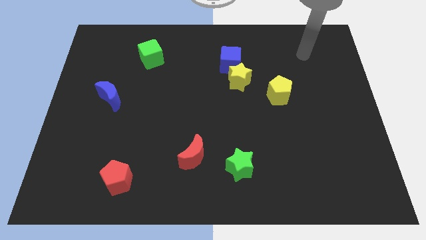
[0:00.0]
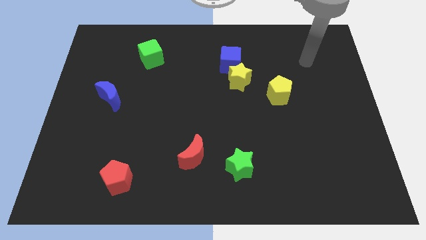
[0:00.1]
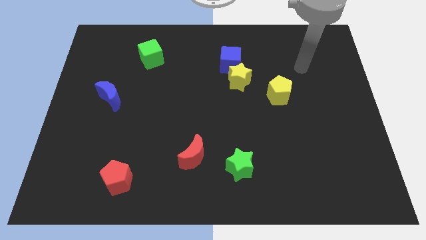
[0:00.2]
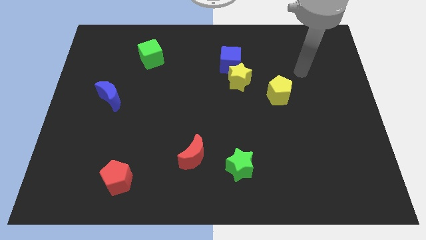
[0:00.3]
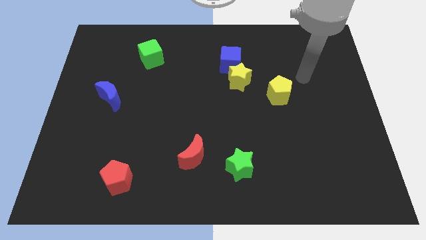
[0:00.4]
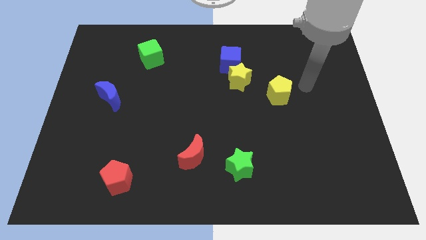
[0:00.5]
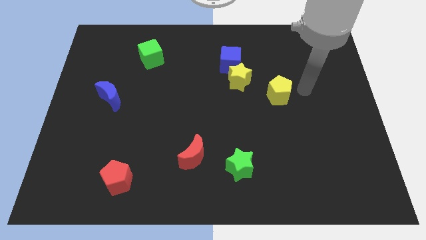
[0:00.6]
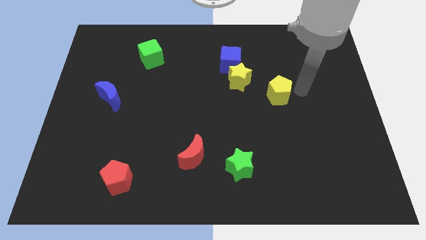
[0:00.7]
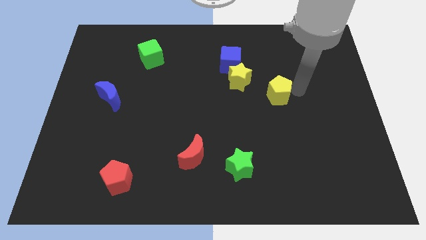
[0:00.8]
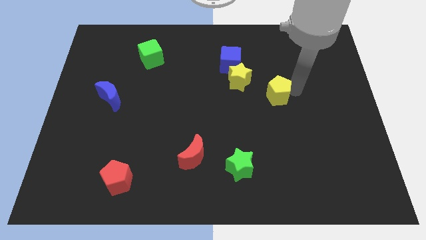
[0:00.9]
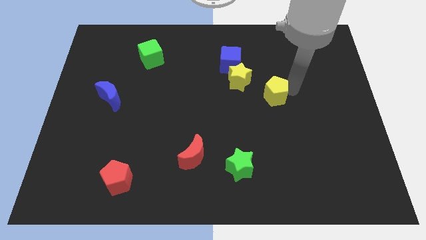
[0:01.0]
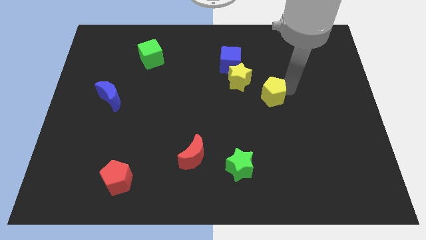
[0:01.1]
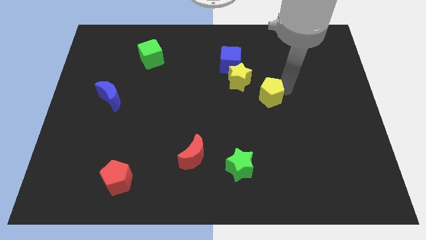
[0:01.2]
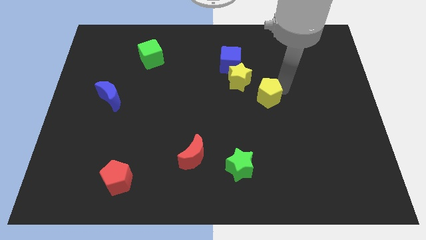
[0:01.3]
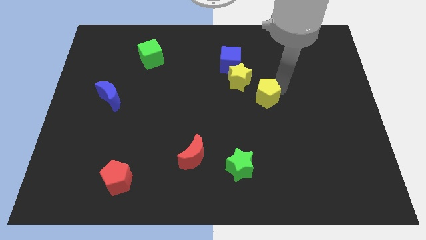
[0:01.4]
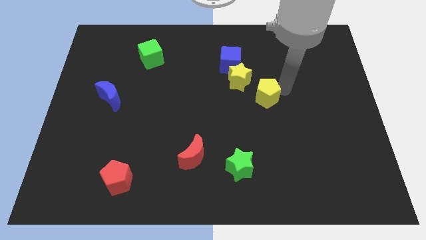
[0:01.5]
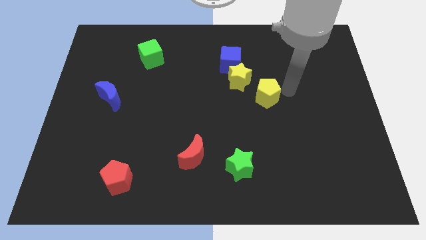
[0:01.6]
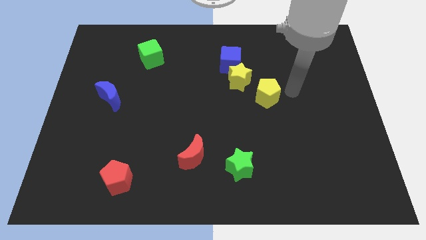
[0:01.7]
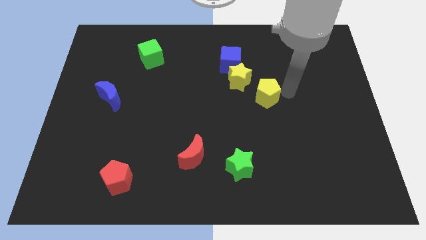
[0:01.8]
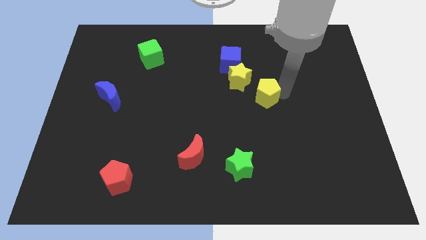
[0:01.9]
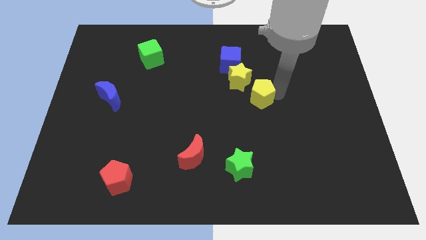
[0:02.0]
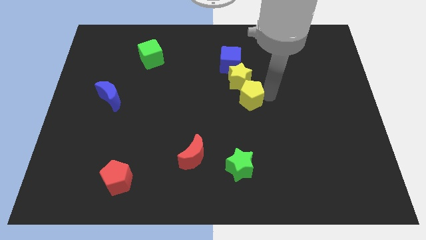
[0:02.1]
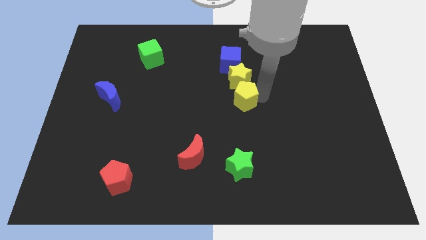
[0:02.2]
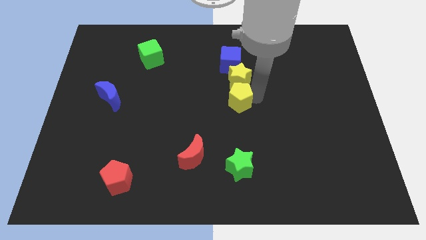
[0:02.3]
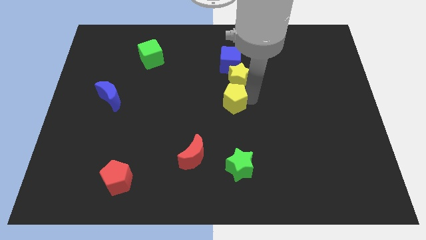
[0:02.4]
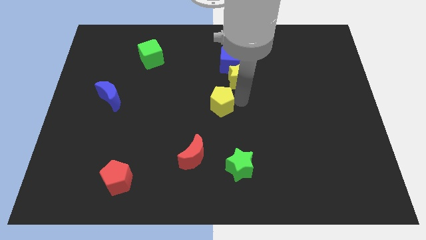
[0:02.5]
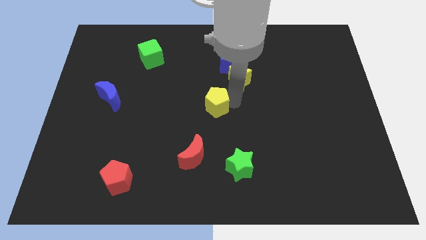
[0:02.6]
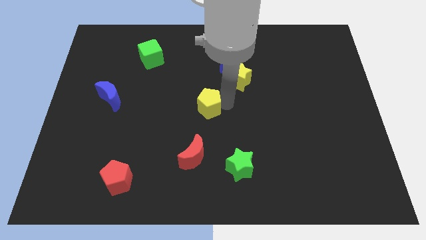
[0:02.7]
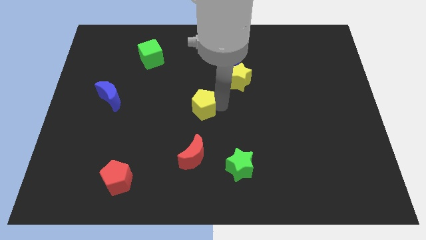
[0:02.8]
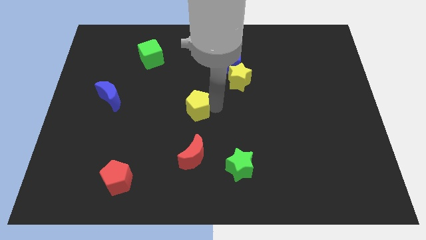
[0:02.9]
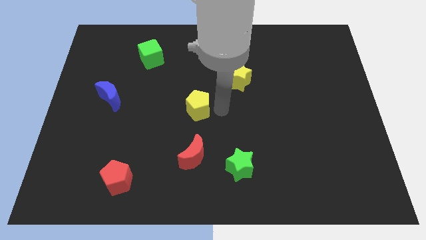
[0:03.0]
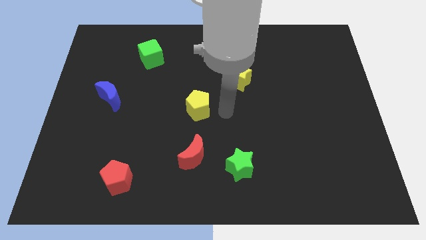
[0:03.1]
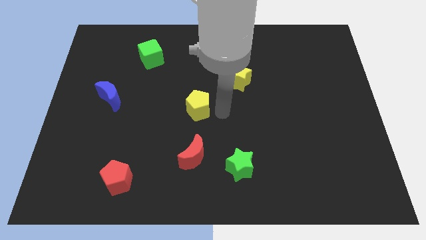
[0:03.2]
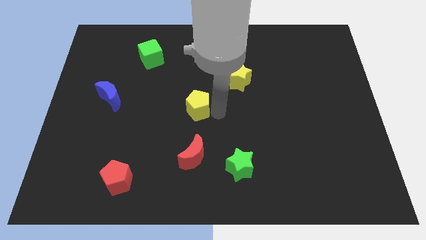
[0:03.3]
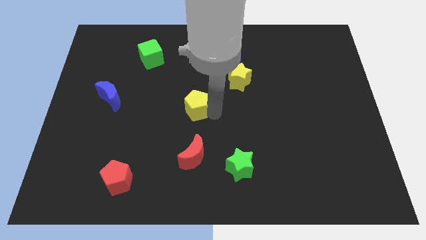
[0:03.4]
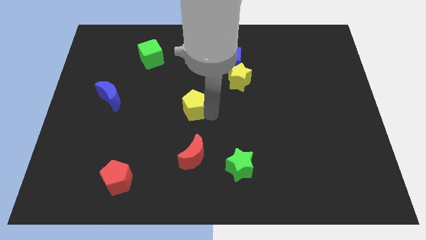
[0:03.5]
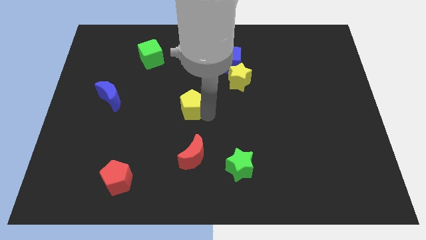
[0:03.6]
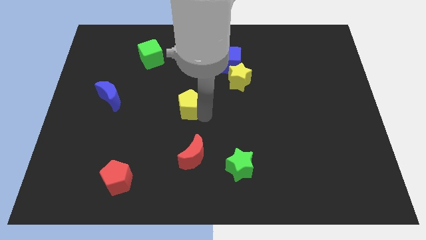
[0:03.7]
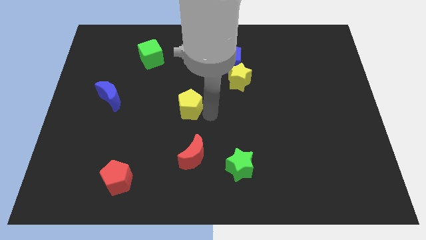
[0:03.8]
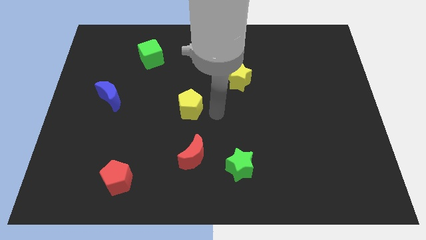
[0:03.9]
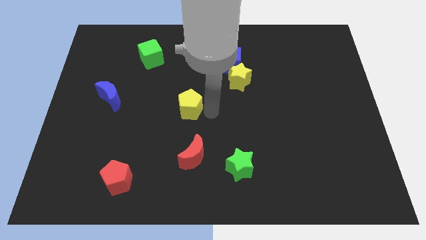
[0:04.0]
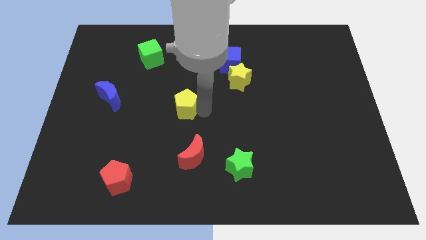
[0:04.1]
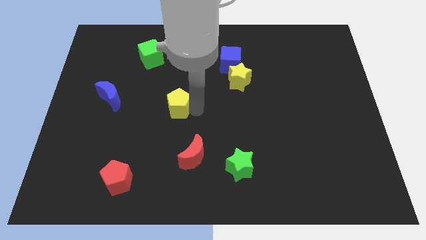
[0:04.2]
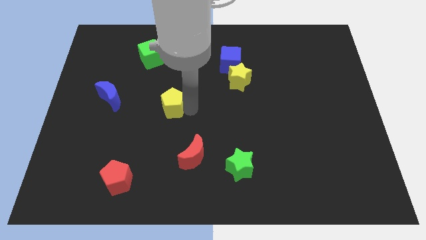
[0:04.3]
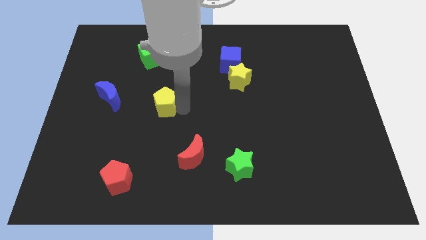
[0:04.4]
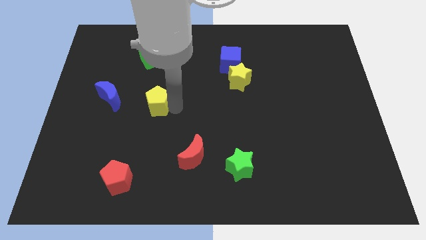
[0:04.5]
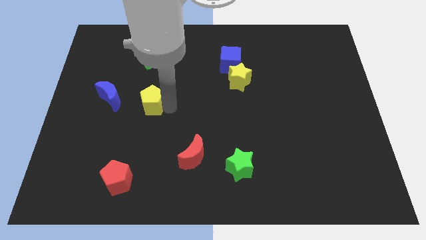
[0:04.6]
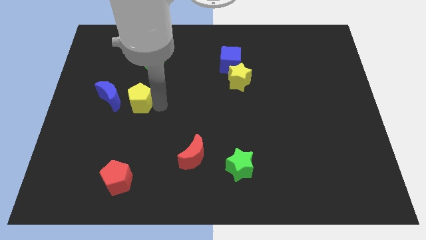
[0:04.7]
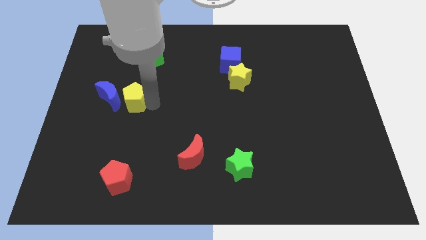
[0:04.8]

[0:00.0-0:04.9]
move the yellow pentagon next to the blue moon

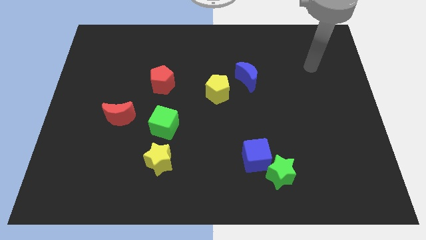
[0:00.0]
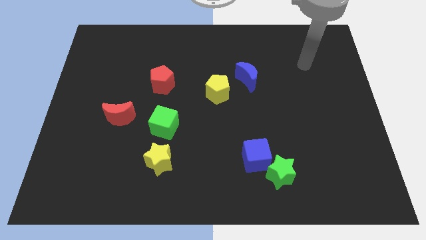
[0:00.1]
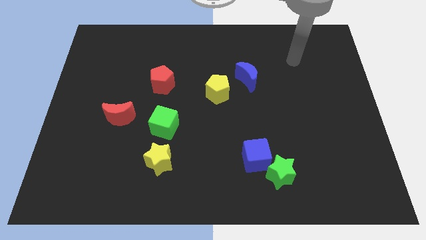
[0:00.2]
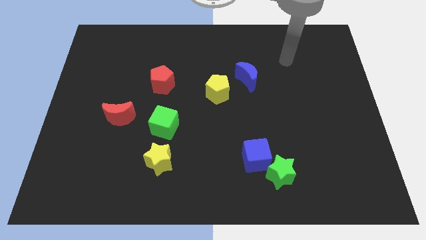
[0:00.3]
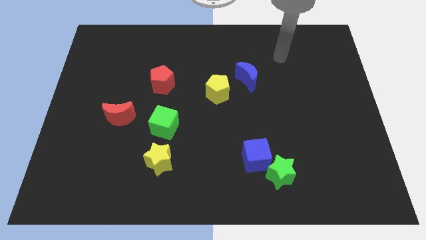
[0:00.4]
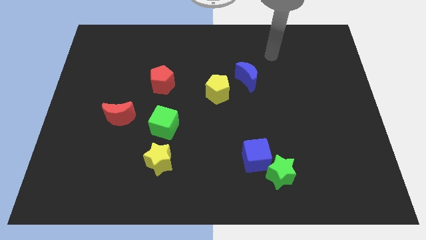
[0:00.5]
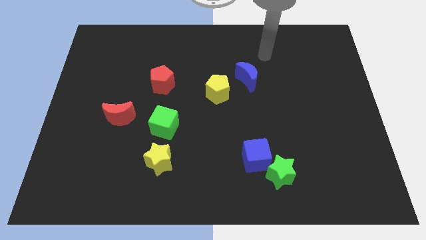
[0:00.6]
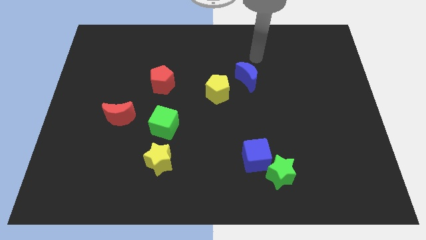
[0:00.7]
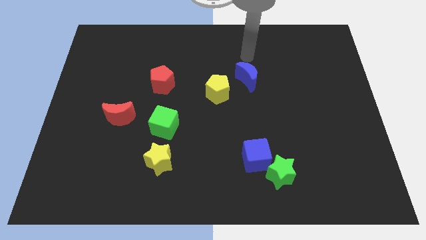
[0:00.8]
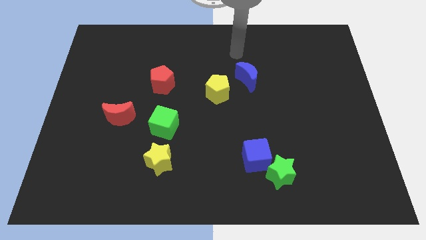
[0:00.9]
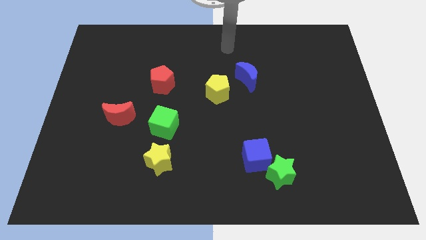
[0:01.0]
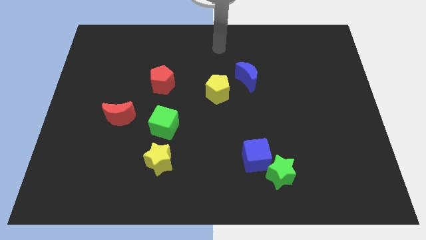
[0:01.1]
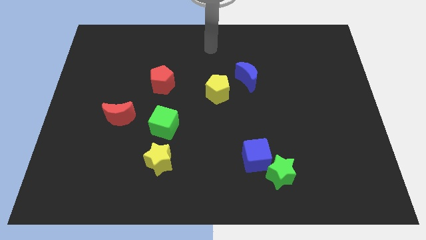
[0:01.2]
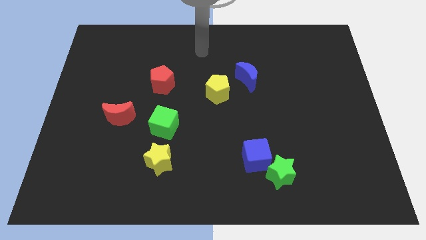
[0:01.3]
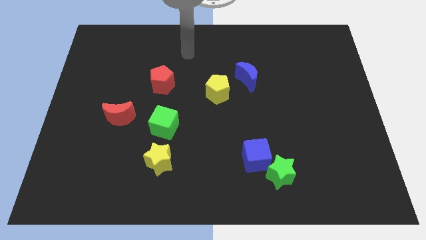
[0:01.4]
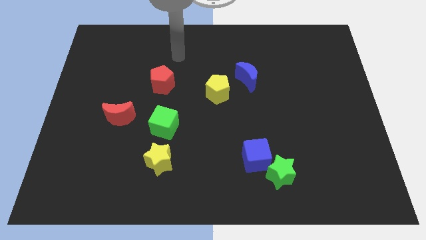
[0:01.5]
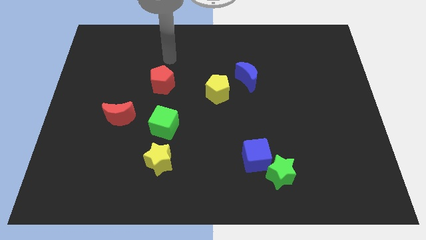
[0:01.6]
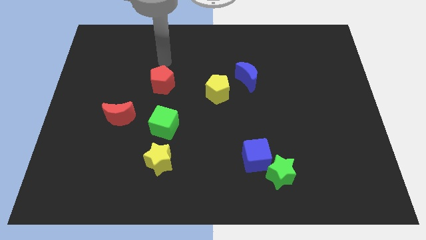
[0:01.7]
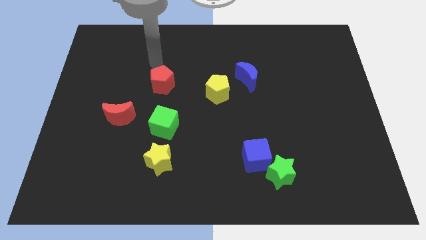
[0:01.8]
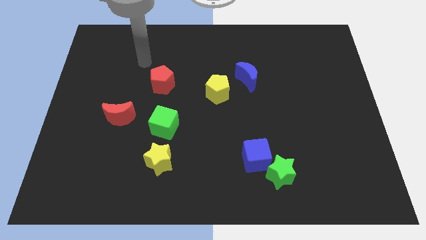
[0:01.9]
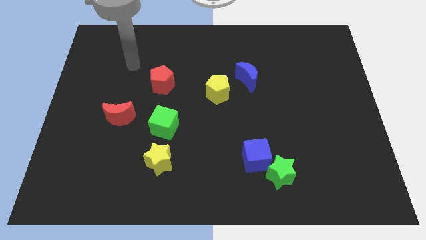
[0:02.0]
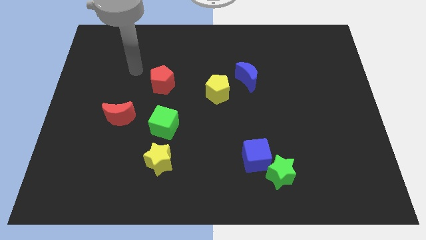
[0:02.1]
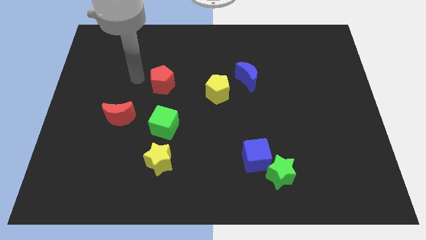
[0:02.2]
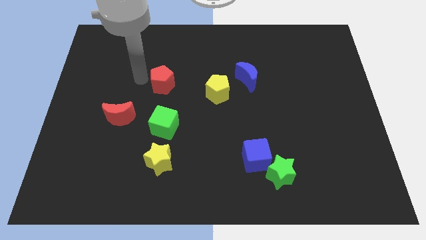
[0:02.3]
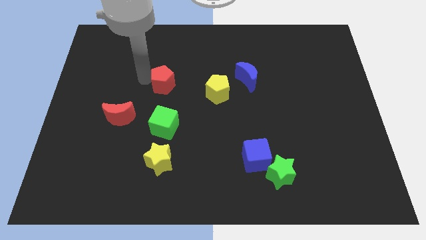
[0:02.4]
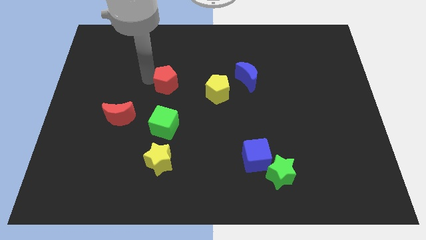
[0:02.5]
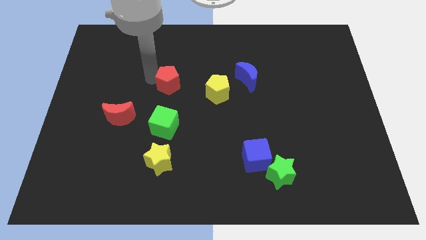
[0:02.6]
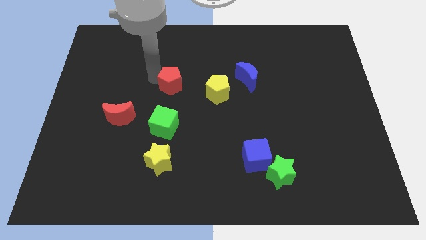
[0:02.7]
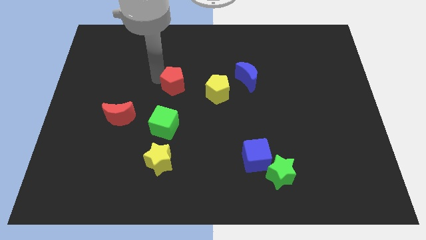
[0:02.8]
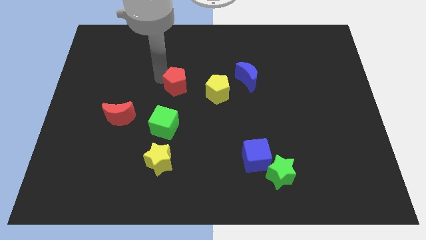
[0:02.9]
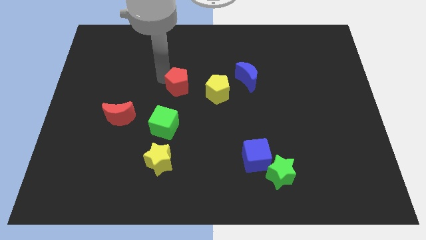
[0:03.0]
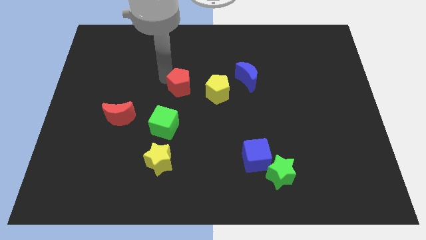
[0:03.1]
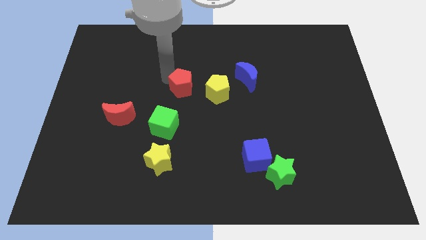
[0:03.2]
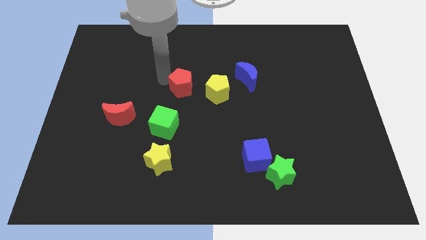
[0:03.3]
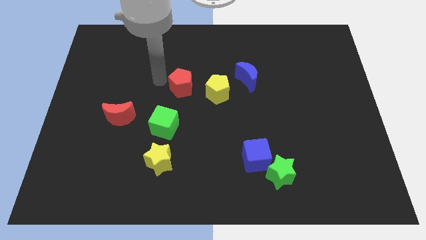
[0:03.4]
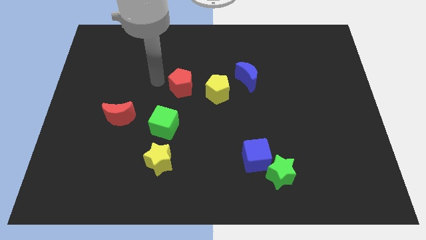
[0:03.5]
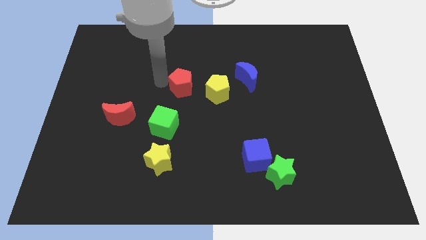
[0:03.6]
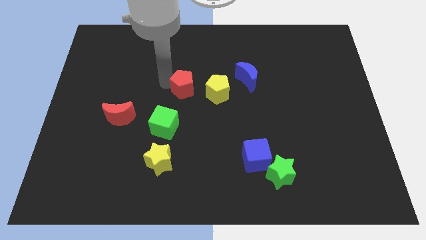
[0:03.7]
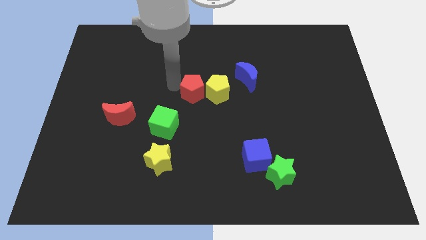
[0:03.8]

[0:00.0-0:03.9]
move the red pentagon to the yellow pentagon
